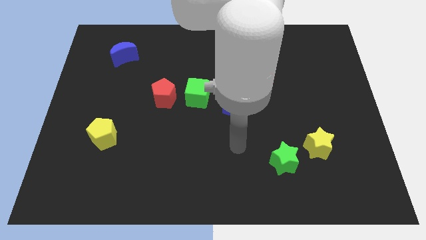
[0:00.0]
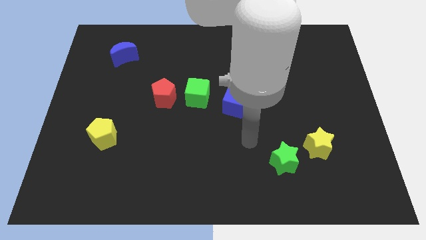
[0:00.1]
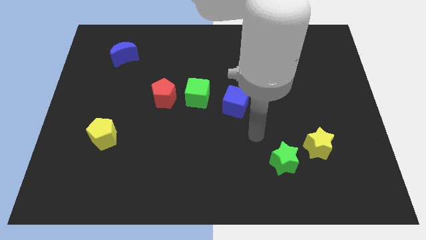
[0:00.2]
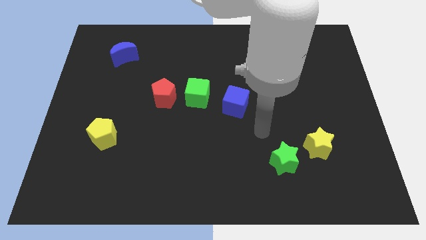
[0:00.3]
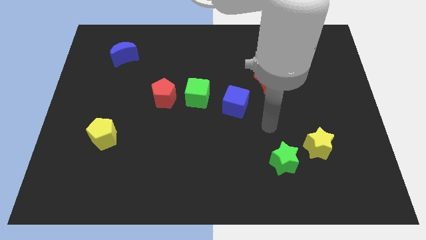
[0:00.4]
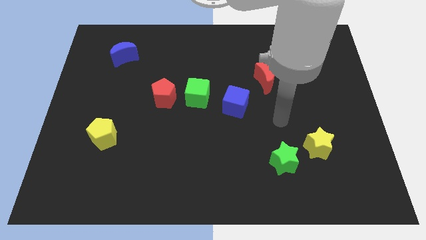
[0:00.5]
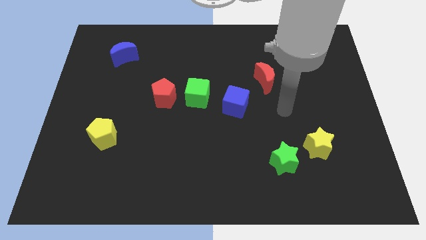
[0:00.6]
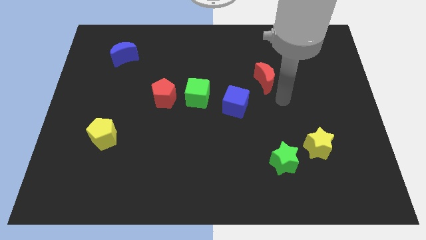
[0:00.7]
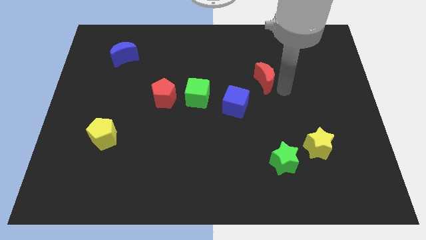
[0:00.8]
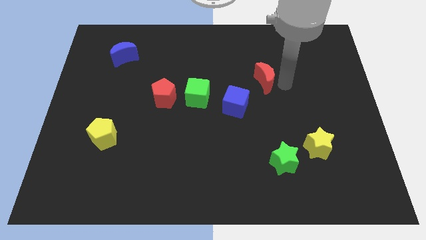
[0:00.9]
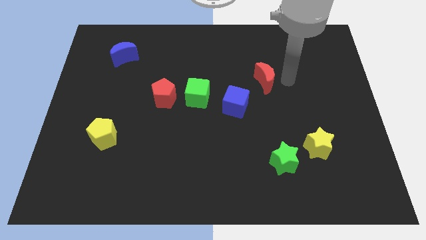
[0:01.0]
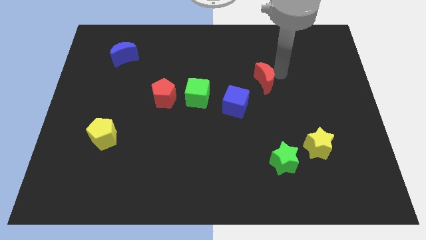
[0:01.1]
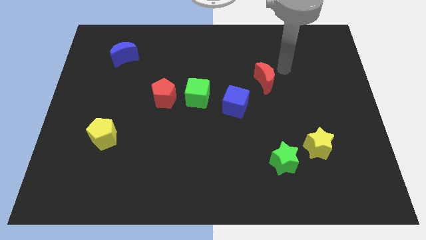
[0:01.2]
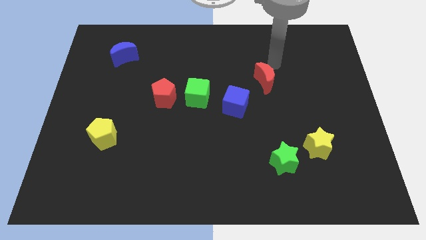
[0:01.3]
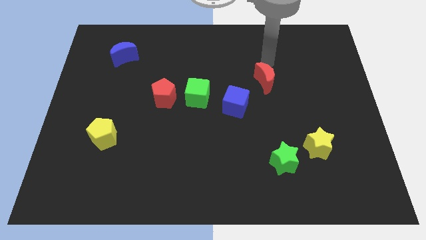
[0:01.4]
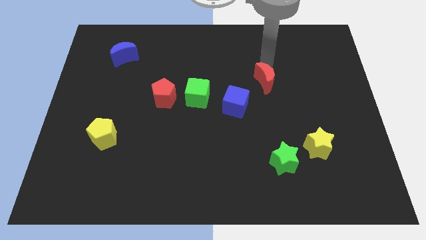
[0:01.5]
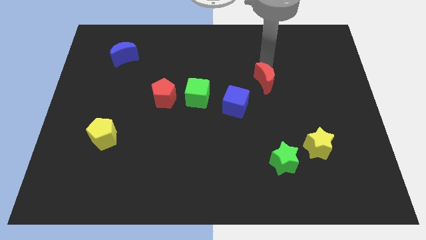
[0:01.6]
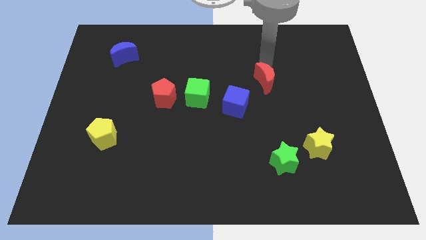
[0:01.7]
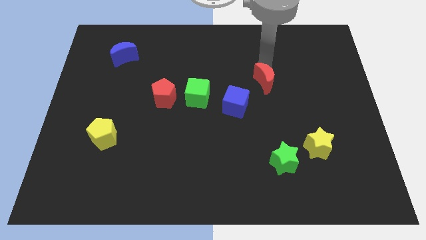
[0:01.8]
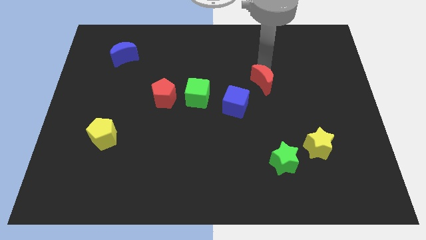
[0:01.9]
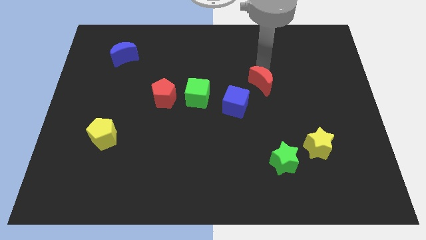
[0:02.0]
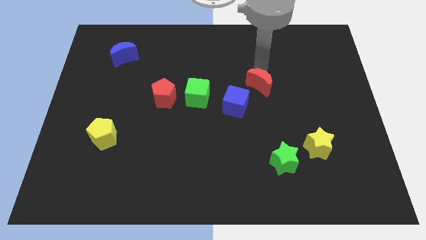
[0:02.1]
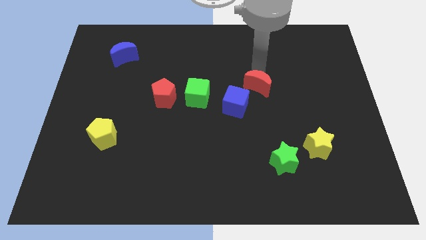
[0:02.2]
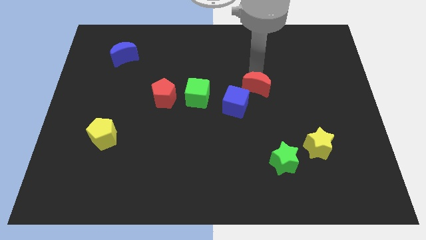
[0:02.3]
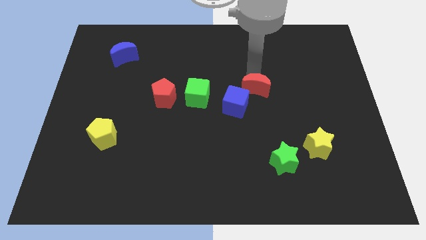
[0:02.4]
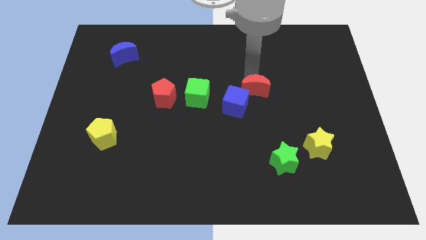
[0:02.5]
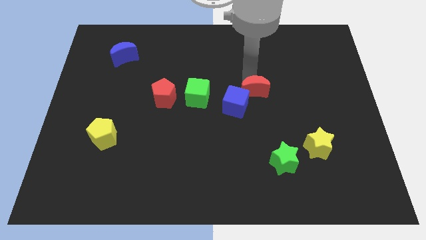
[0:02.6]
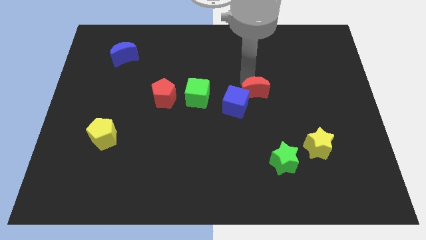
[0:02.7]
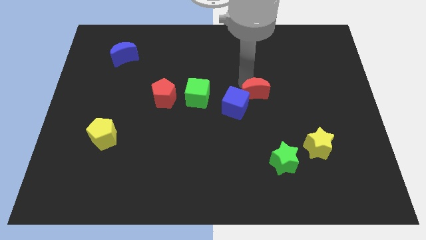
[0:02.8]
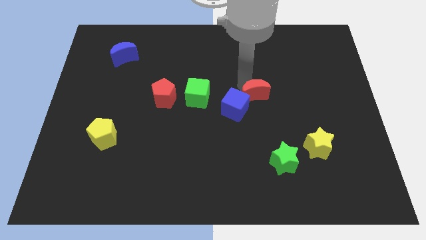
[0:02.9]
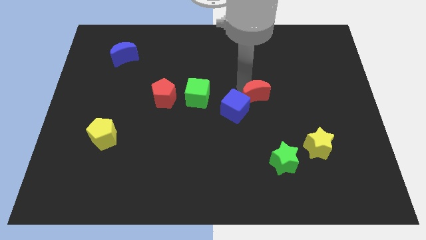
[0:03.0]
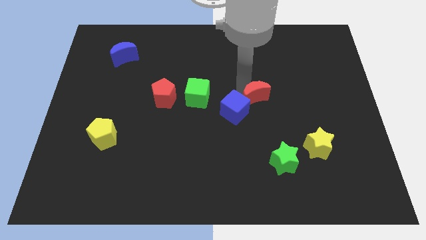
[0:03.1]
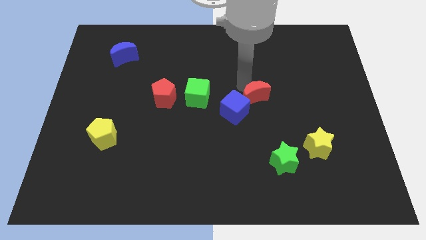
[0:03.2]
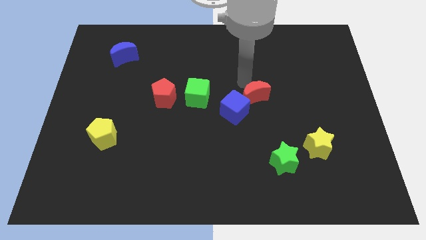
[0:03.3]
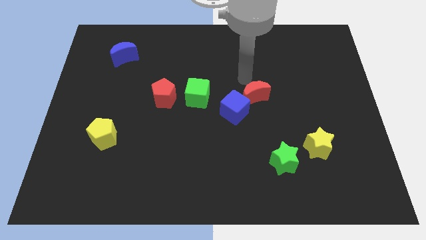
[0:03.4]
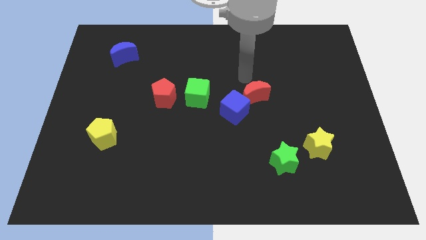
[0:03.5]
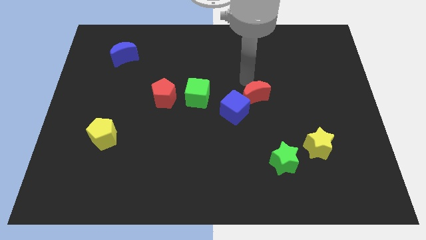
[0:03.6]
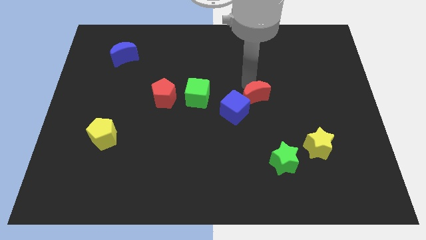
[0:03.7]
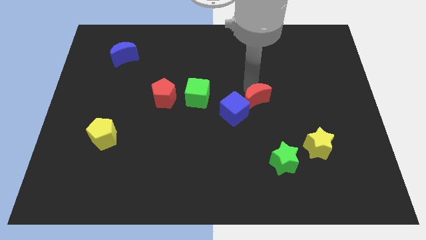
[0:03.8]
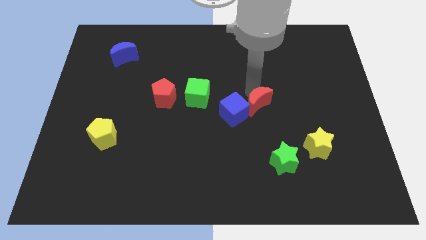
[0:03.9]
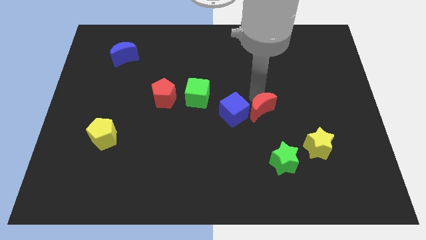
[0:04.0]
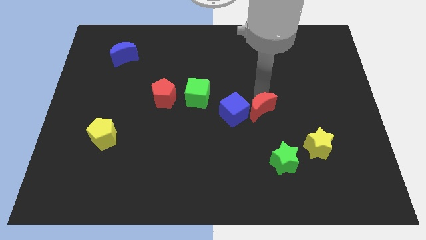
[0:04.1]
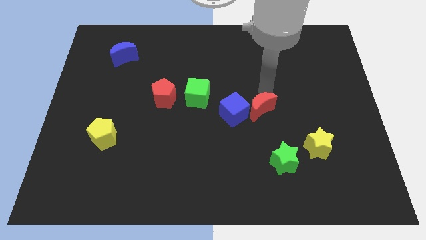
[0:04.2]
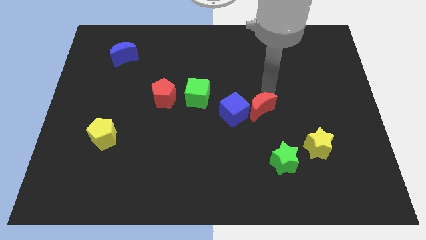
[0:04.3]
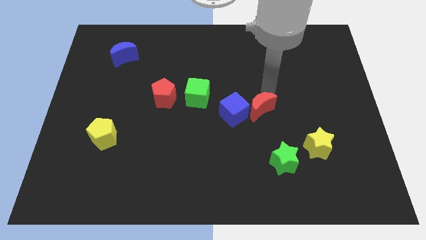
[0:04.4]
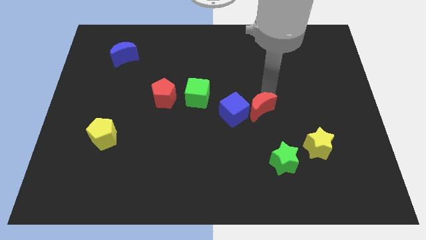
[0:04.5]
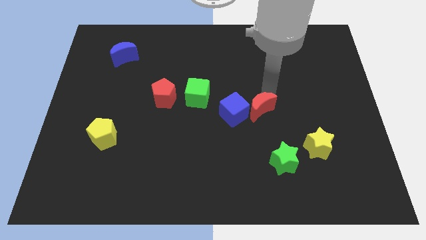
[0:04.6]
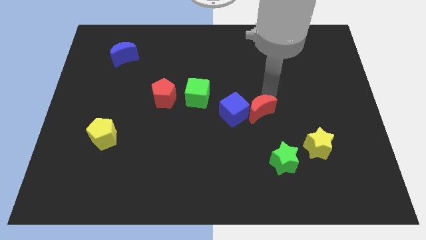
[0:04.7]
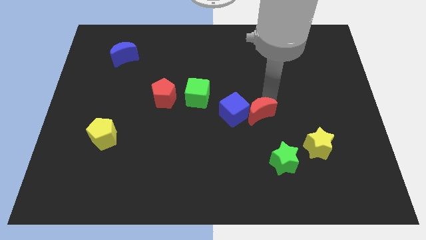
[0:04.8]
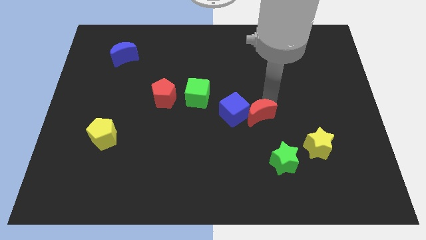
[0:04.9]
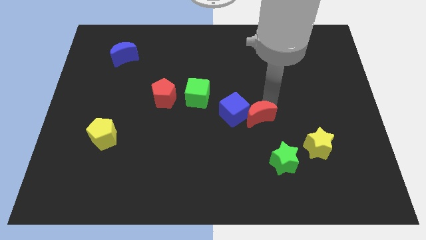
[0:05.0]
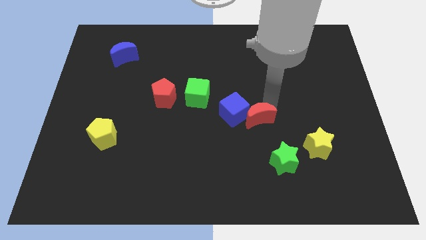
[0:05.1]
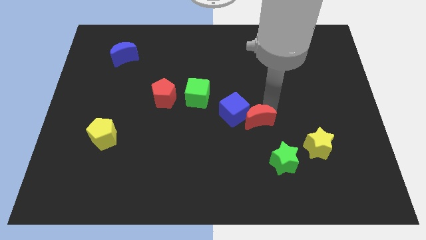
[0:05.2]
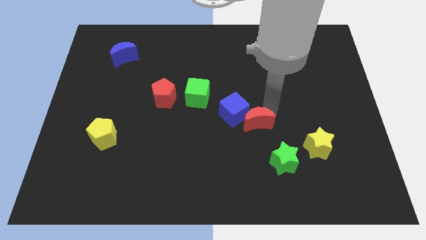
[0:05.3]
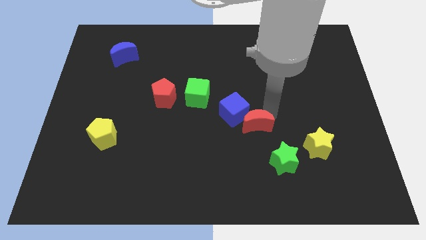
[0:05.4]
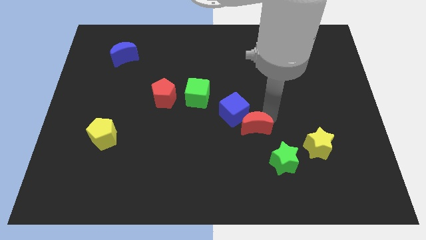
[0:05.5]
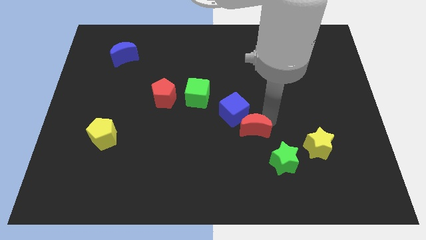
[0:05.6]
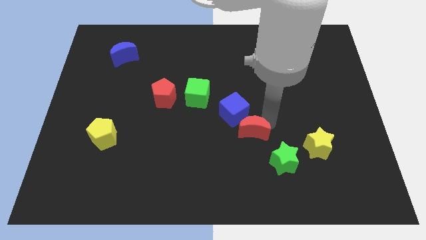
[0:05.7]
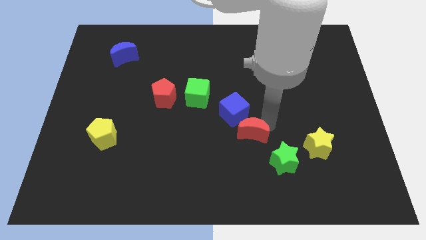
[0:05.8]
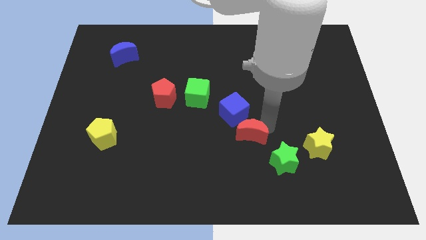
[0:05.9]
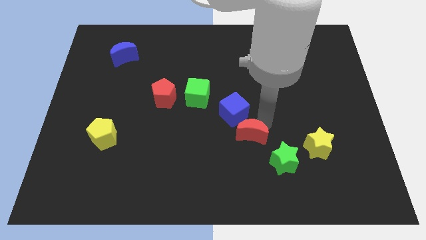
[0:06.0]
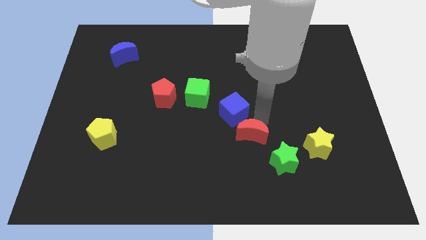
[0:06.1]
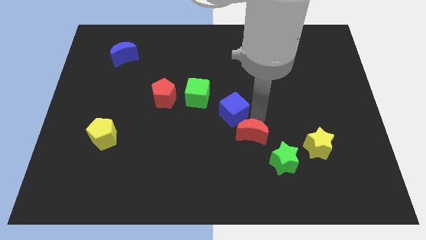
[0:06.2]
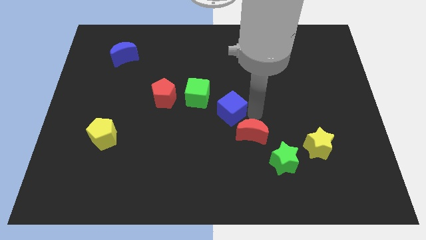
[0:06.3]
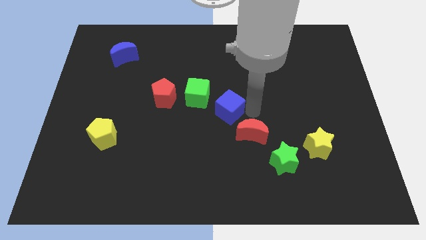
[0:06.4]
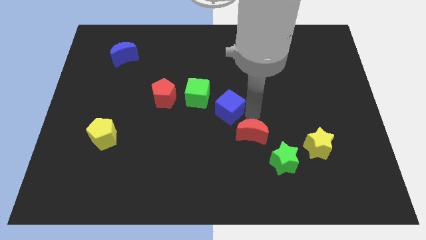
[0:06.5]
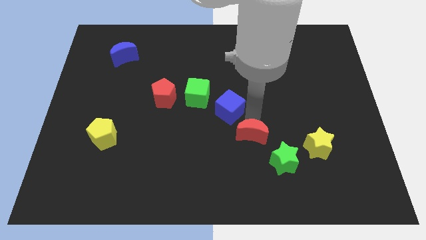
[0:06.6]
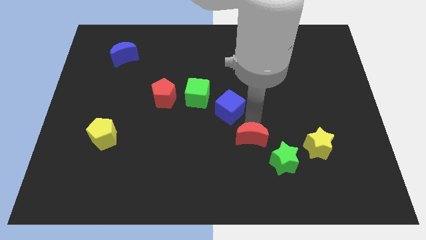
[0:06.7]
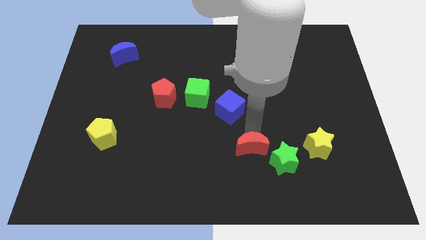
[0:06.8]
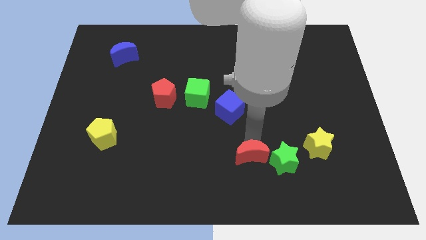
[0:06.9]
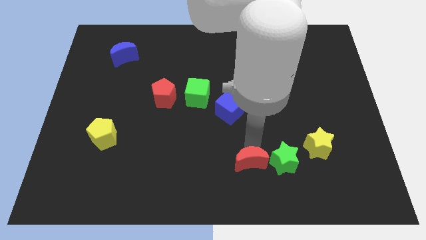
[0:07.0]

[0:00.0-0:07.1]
slide the red moon to the bottom
